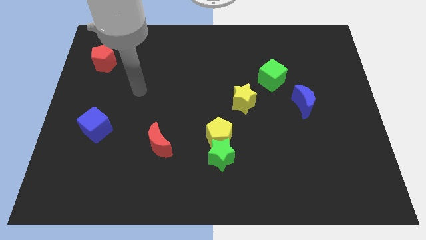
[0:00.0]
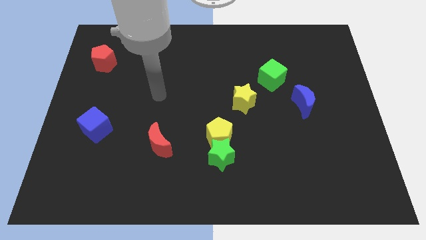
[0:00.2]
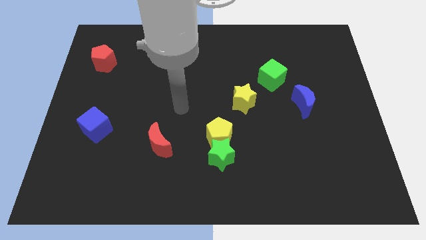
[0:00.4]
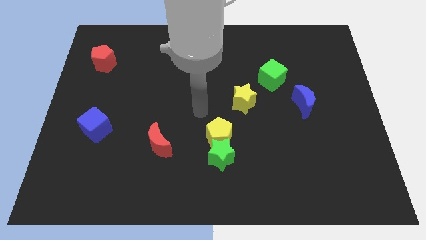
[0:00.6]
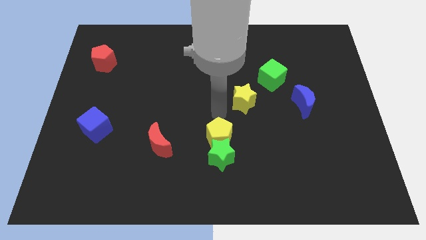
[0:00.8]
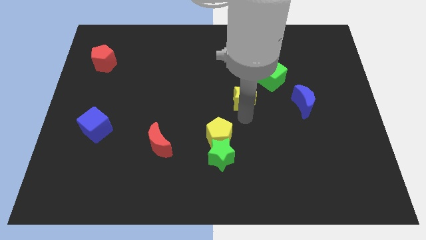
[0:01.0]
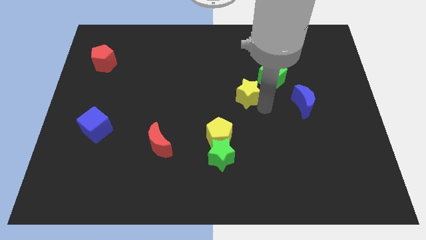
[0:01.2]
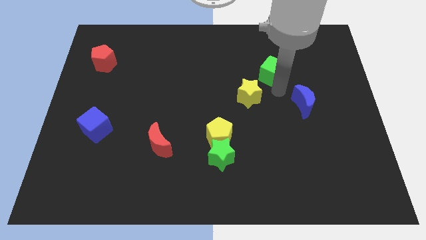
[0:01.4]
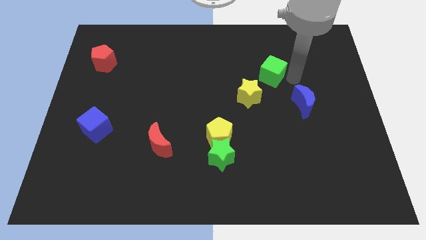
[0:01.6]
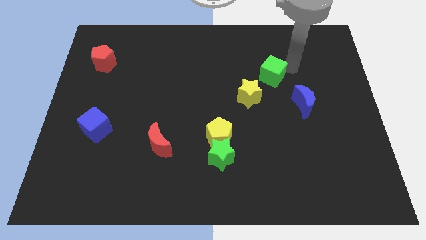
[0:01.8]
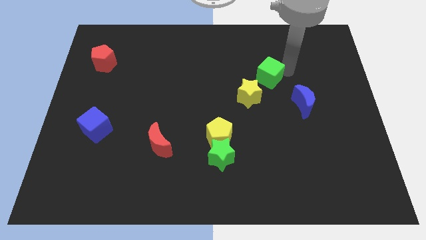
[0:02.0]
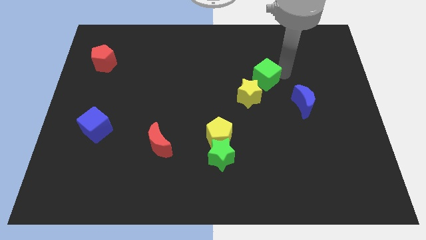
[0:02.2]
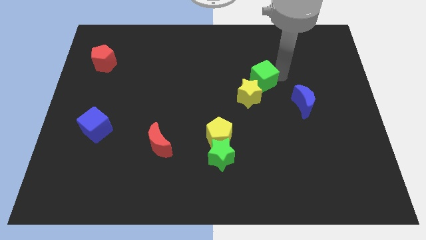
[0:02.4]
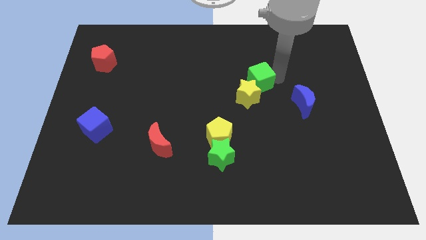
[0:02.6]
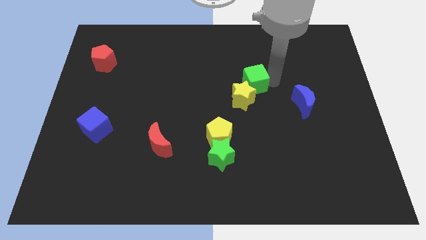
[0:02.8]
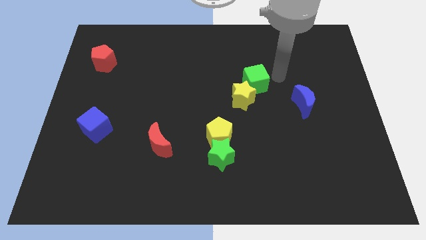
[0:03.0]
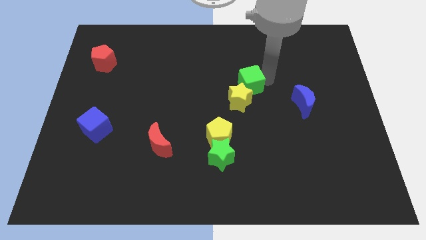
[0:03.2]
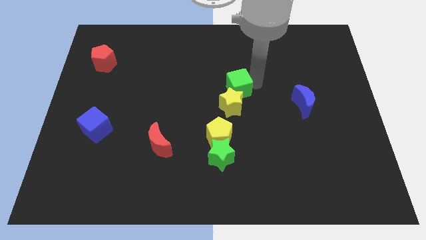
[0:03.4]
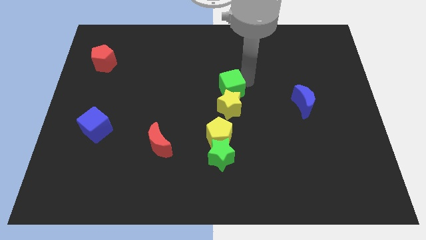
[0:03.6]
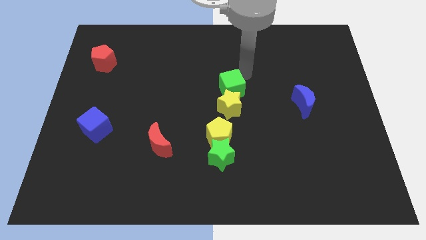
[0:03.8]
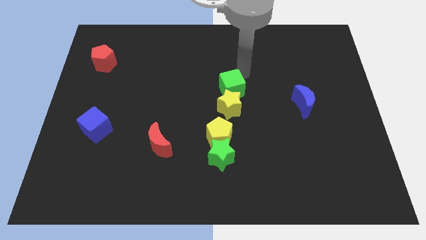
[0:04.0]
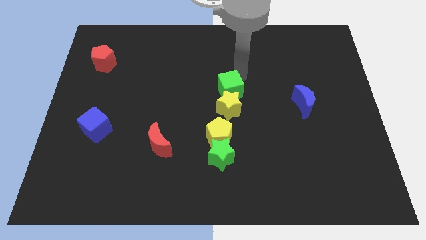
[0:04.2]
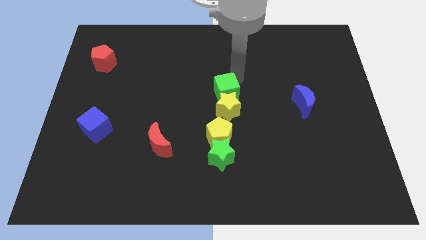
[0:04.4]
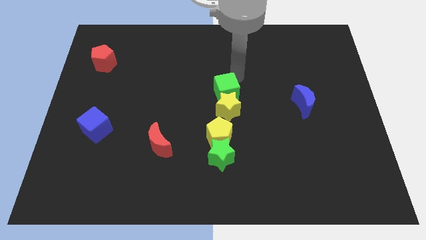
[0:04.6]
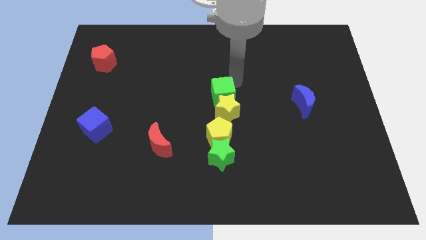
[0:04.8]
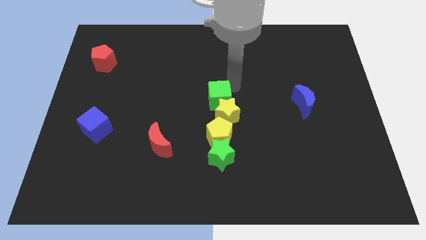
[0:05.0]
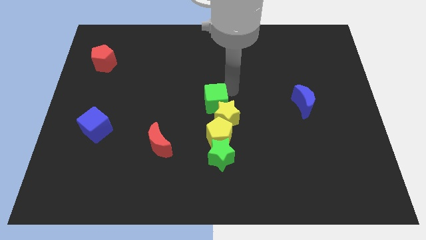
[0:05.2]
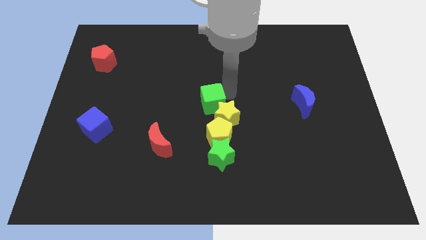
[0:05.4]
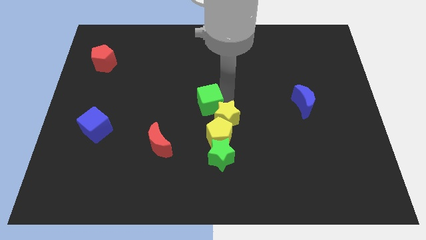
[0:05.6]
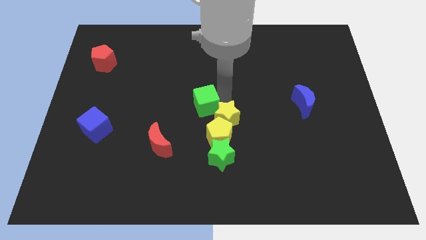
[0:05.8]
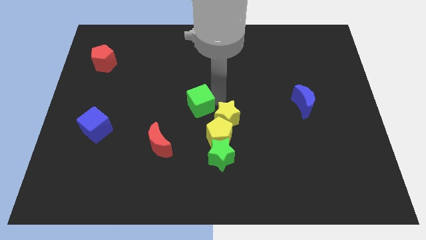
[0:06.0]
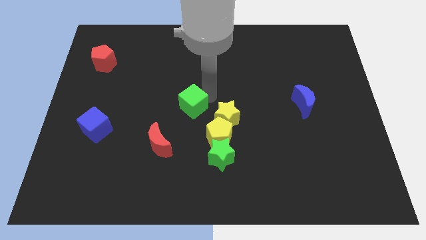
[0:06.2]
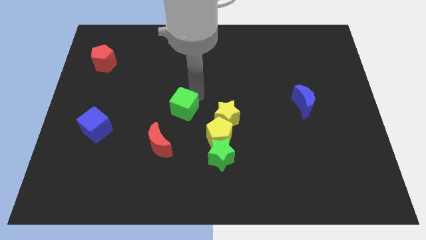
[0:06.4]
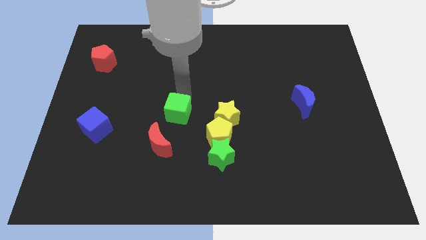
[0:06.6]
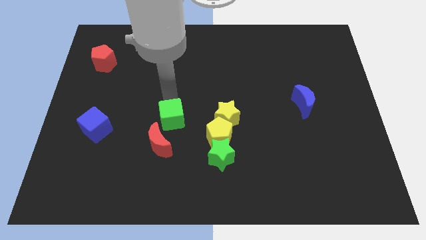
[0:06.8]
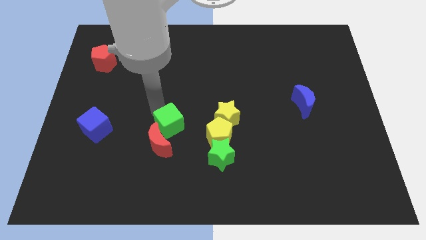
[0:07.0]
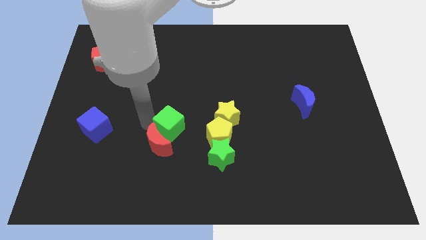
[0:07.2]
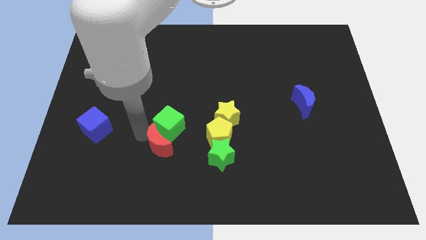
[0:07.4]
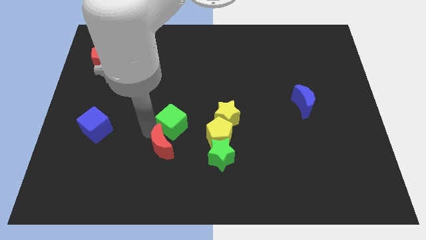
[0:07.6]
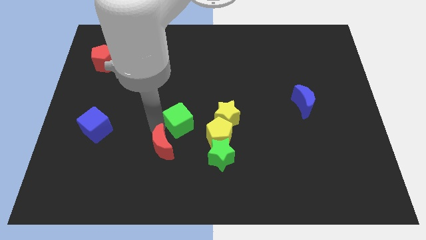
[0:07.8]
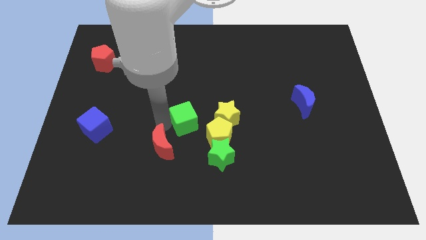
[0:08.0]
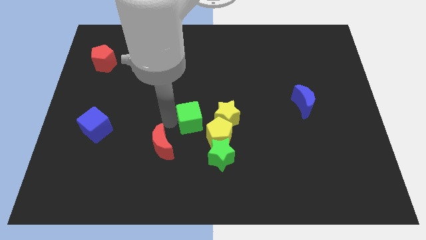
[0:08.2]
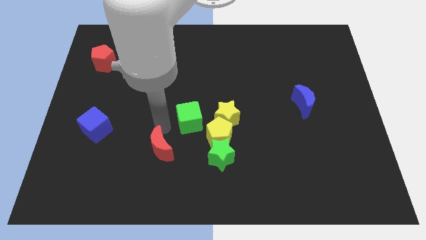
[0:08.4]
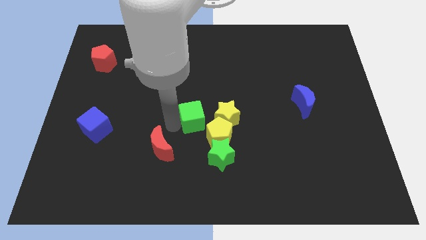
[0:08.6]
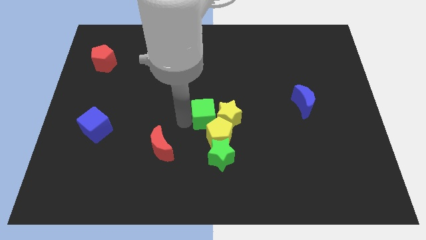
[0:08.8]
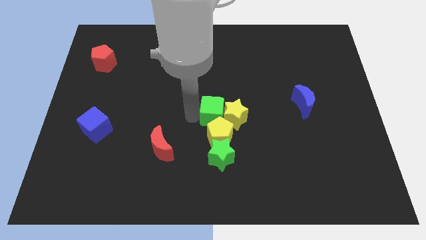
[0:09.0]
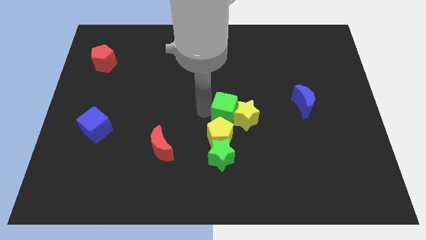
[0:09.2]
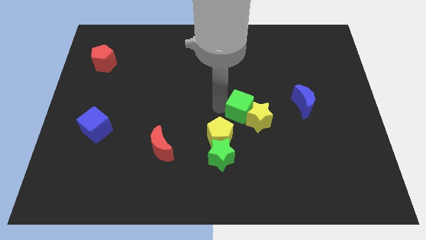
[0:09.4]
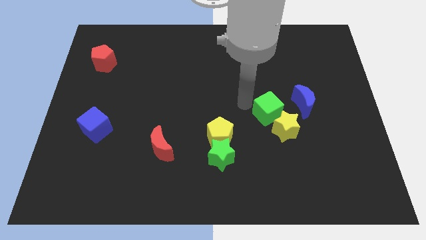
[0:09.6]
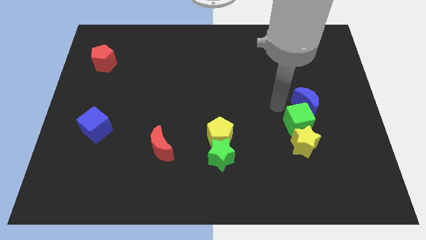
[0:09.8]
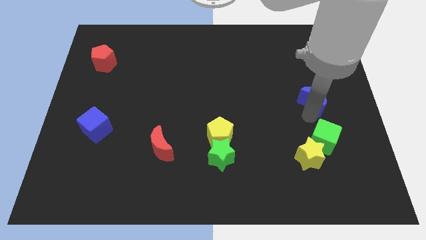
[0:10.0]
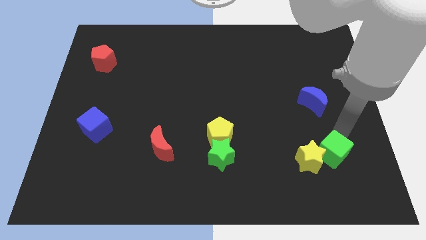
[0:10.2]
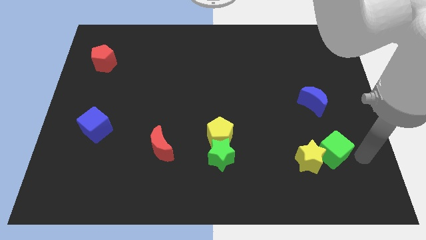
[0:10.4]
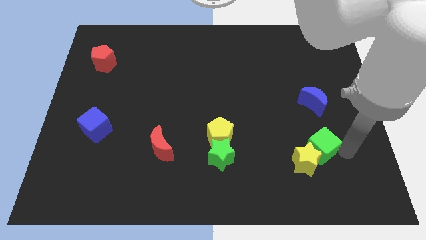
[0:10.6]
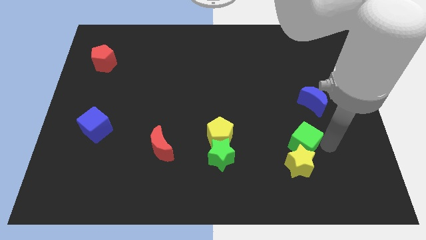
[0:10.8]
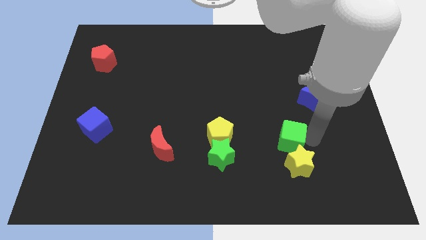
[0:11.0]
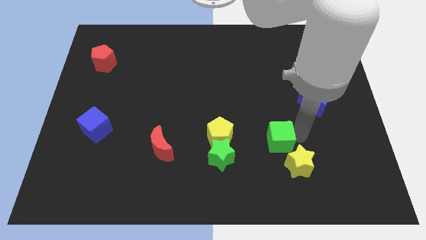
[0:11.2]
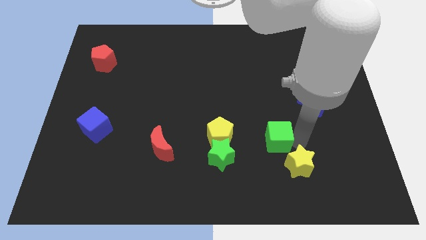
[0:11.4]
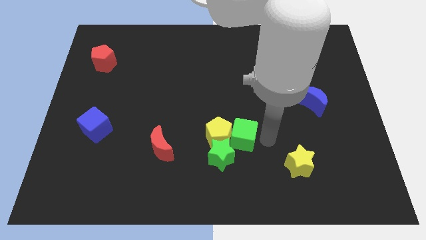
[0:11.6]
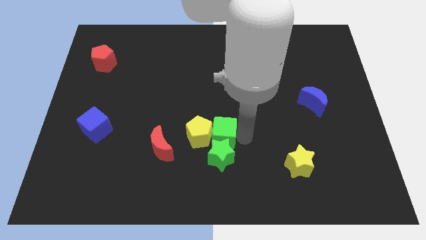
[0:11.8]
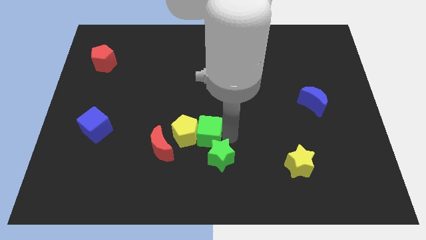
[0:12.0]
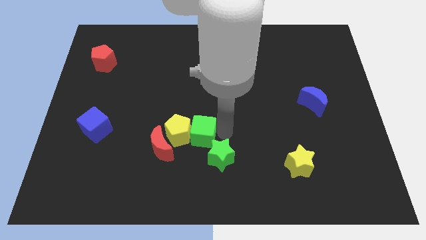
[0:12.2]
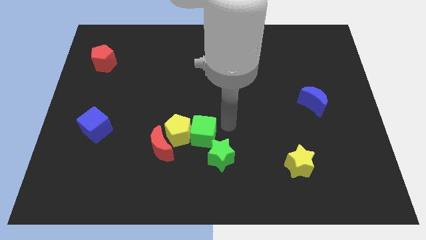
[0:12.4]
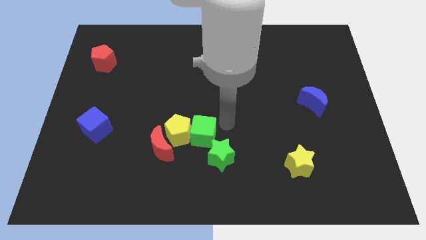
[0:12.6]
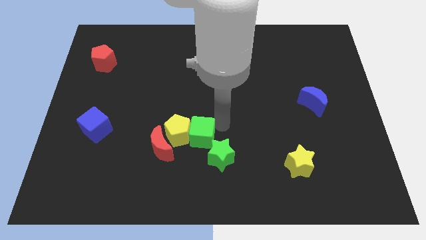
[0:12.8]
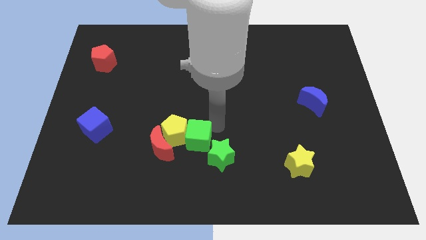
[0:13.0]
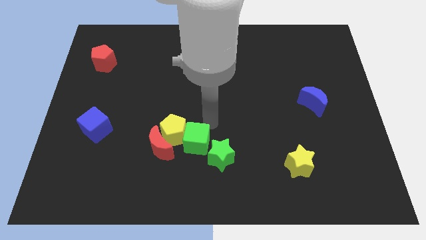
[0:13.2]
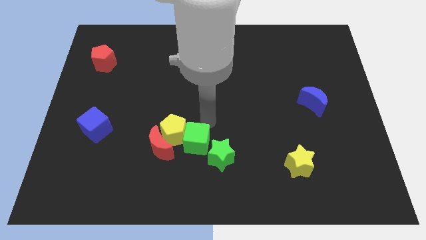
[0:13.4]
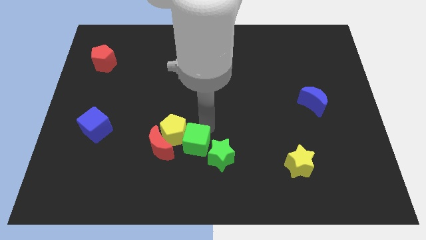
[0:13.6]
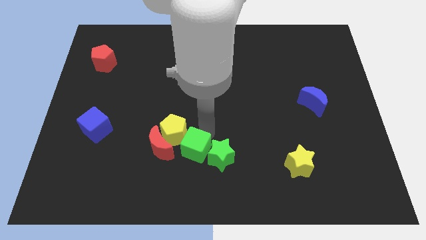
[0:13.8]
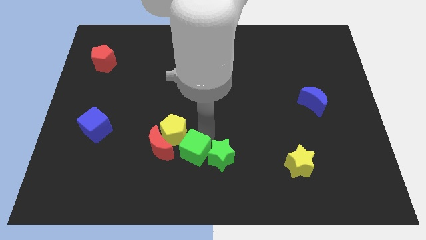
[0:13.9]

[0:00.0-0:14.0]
push the green cube diagonally down and to the right of the red moon

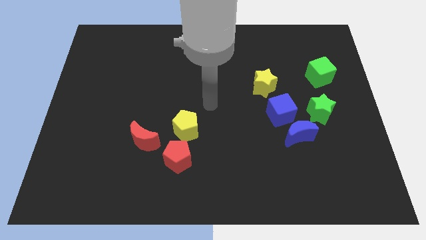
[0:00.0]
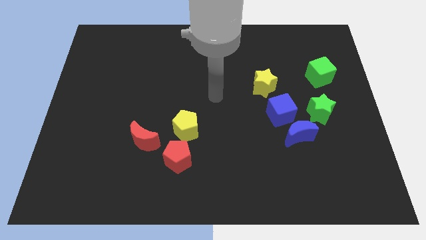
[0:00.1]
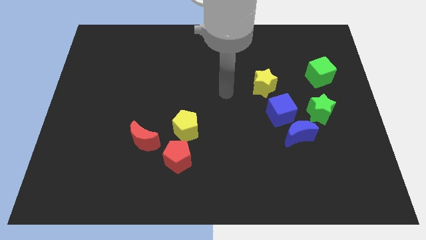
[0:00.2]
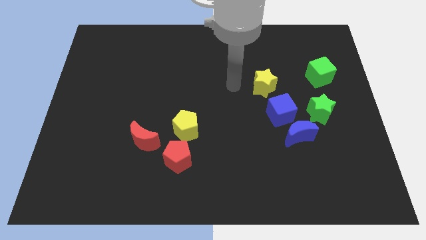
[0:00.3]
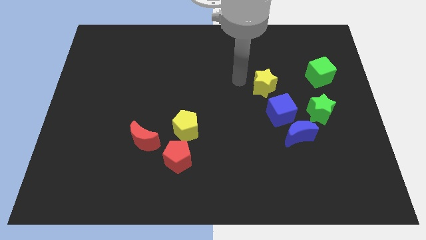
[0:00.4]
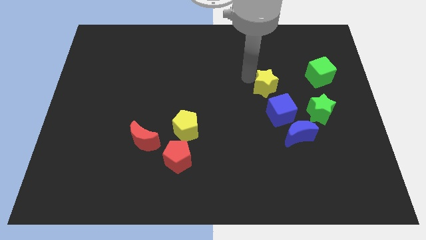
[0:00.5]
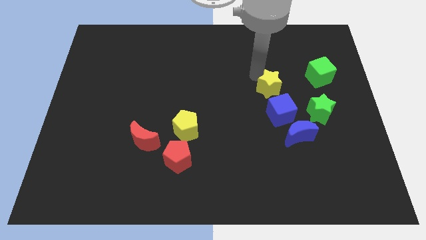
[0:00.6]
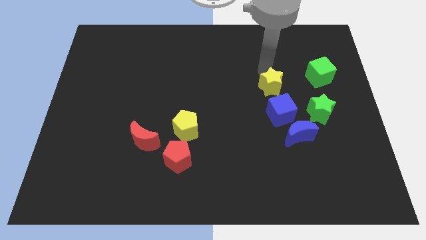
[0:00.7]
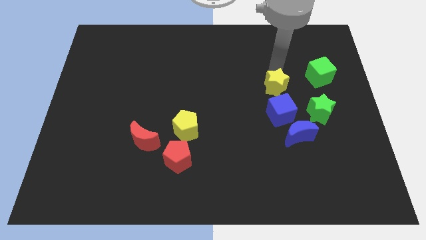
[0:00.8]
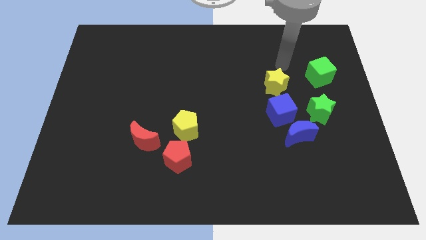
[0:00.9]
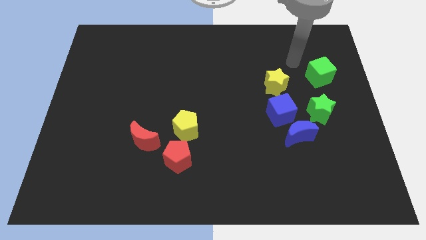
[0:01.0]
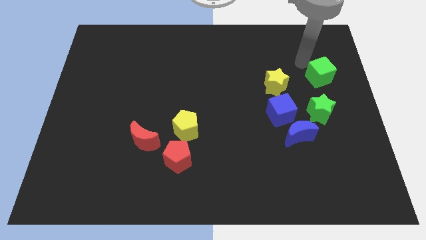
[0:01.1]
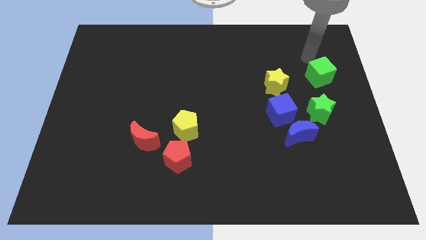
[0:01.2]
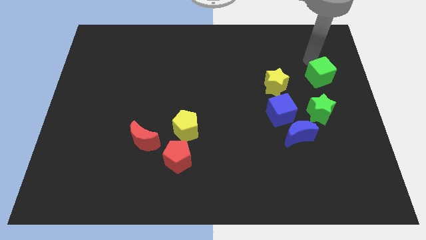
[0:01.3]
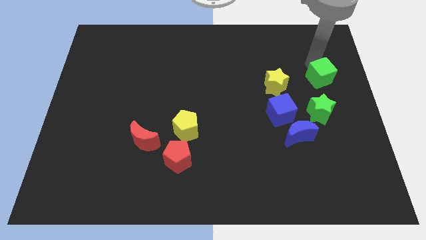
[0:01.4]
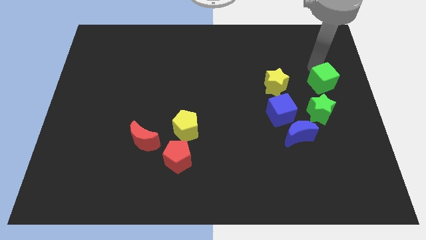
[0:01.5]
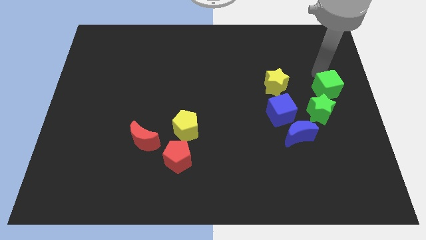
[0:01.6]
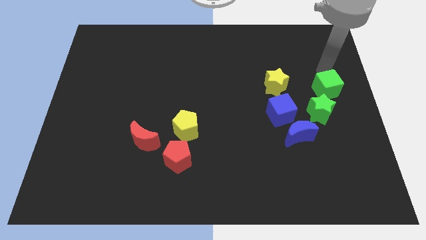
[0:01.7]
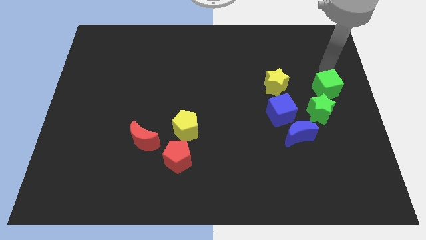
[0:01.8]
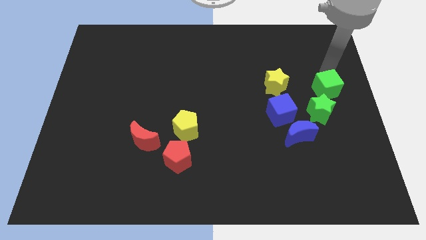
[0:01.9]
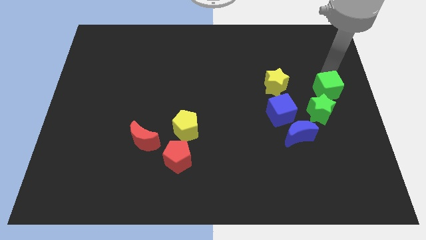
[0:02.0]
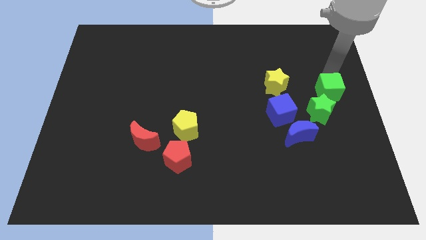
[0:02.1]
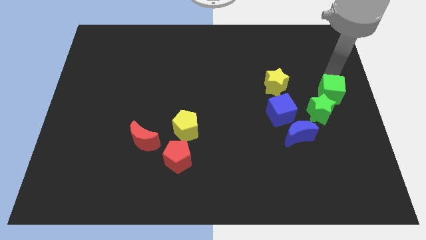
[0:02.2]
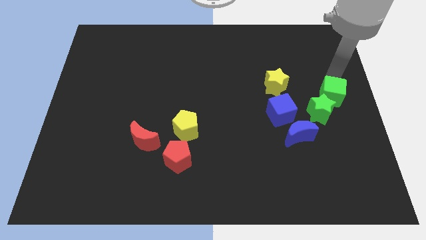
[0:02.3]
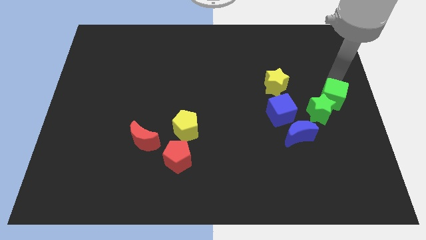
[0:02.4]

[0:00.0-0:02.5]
slide the green cube to the right side of the blue cube
